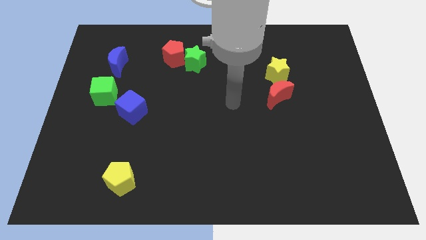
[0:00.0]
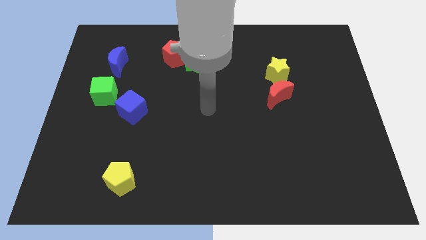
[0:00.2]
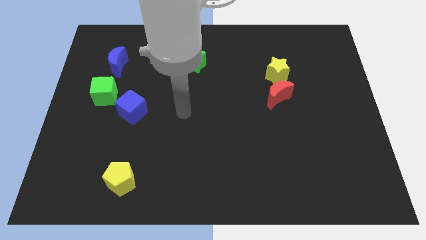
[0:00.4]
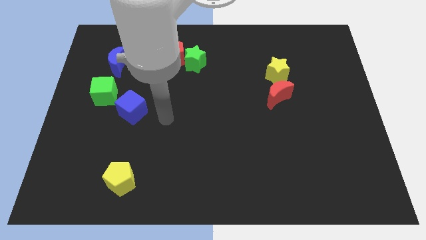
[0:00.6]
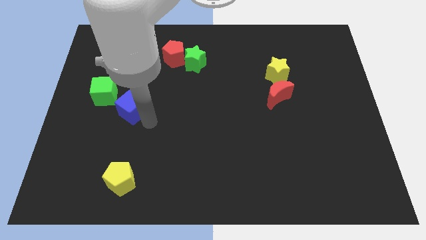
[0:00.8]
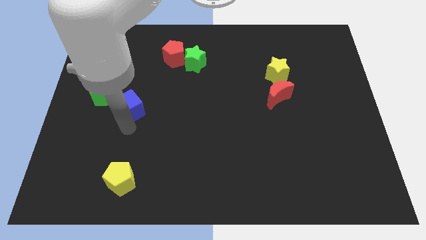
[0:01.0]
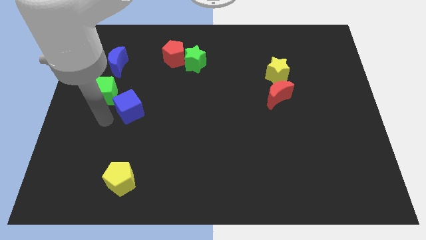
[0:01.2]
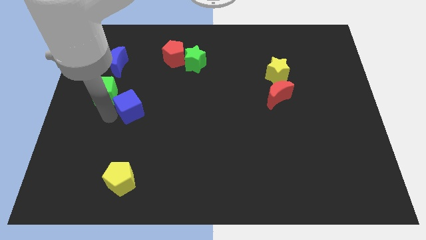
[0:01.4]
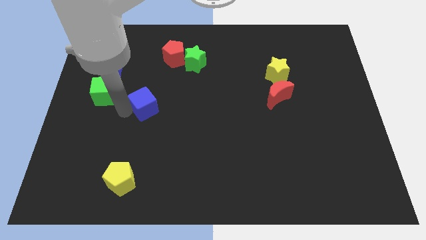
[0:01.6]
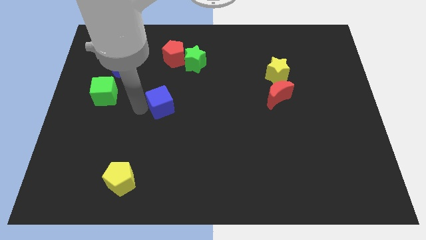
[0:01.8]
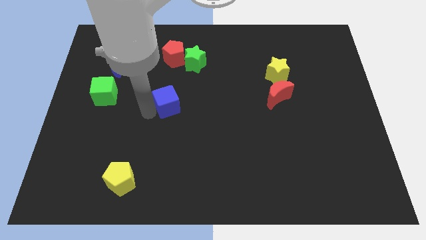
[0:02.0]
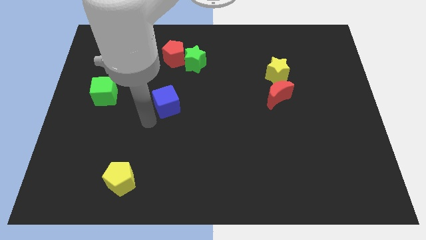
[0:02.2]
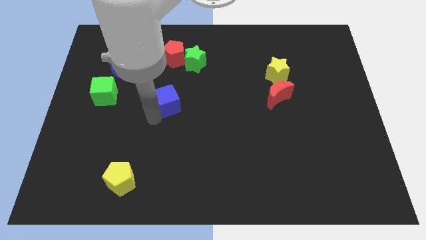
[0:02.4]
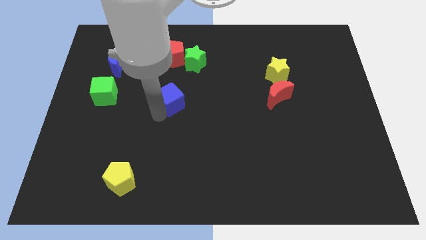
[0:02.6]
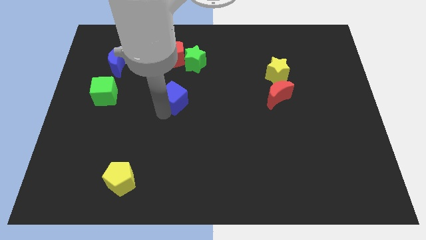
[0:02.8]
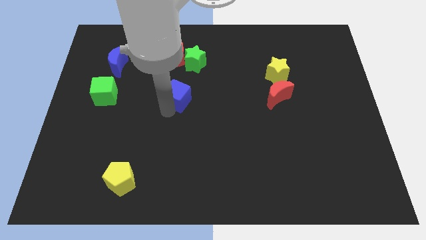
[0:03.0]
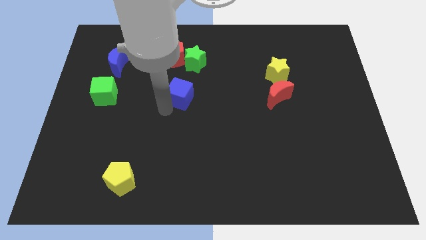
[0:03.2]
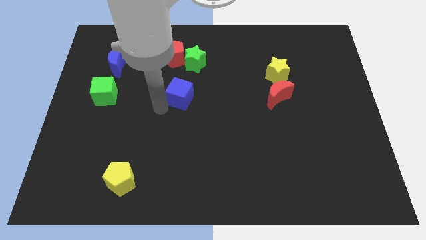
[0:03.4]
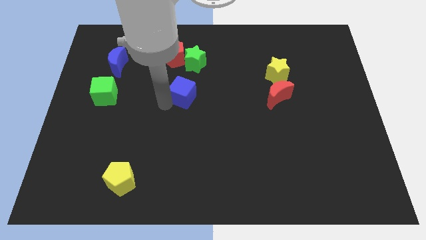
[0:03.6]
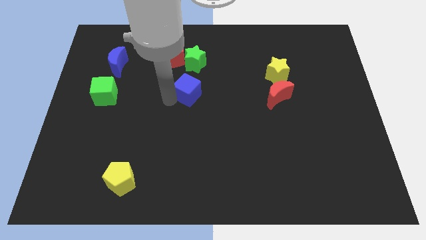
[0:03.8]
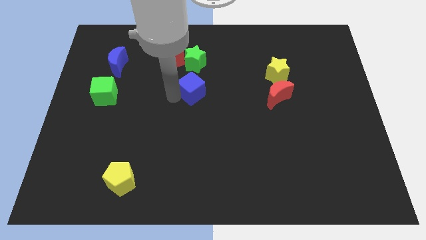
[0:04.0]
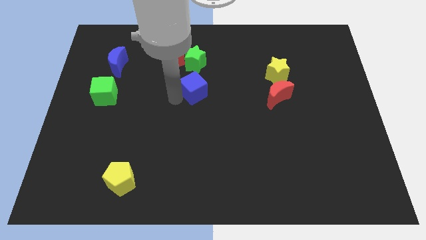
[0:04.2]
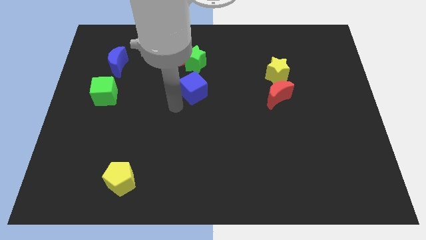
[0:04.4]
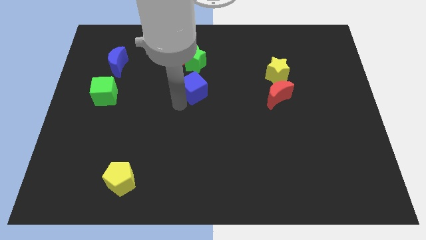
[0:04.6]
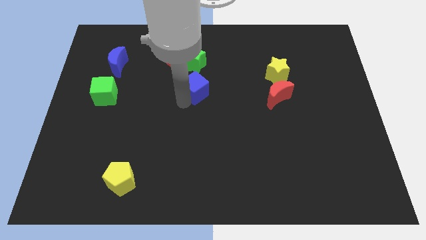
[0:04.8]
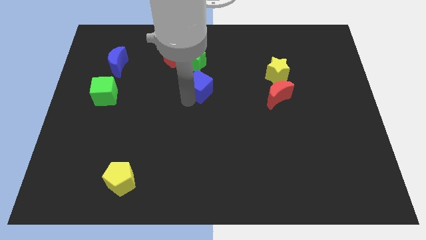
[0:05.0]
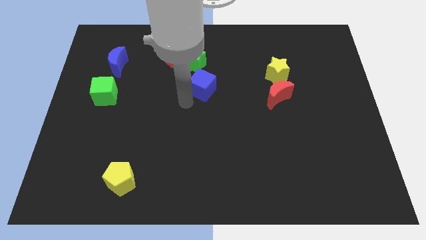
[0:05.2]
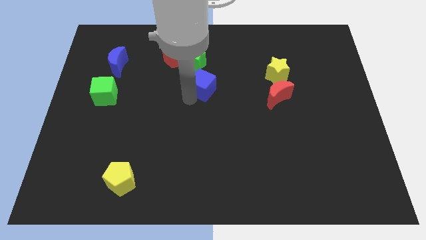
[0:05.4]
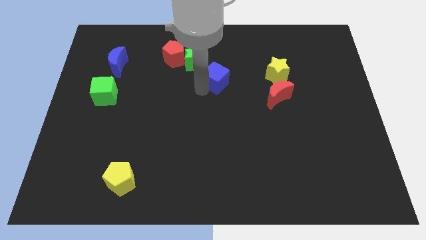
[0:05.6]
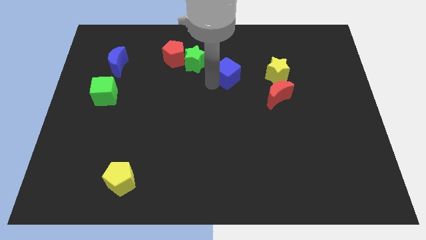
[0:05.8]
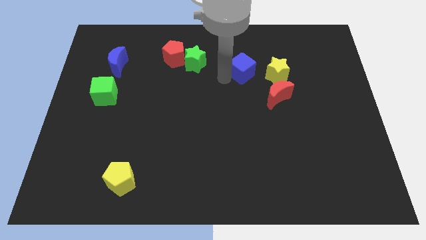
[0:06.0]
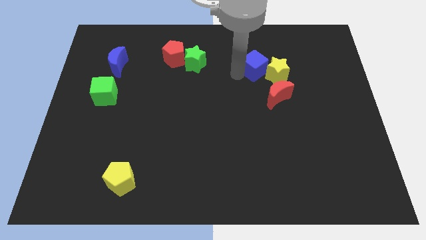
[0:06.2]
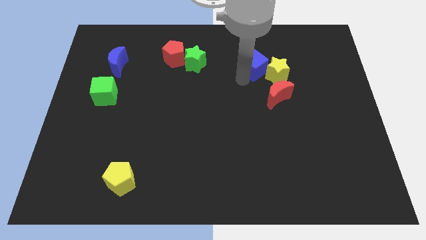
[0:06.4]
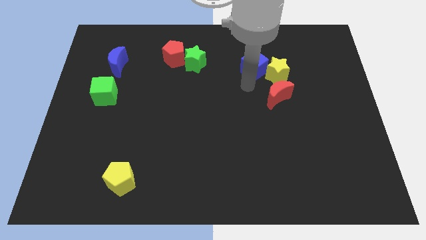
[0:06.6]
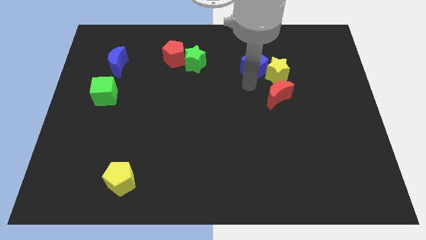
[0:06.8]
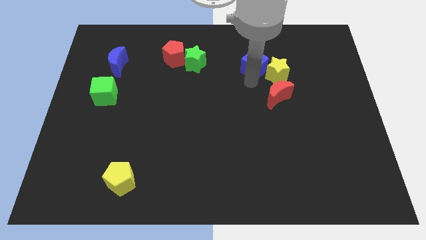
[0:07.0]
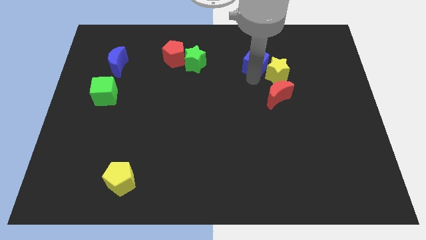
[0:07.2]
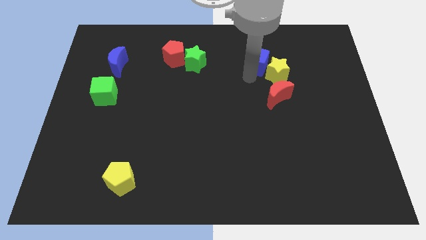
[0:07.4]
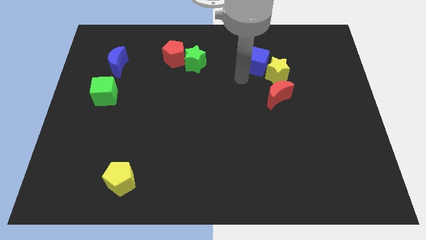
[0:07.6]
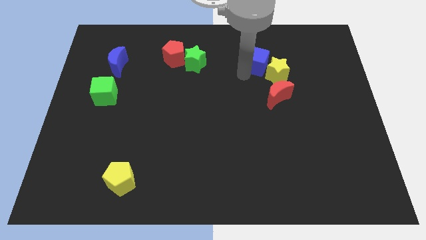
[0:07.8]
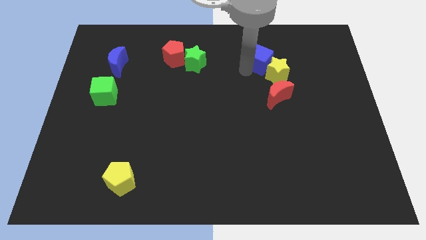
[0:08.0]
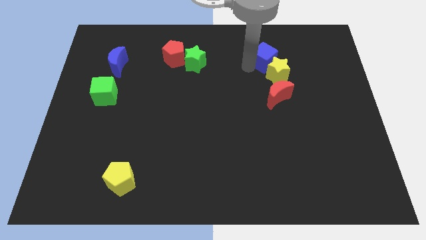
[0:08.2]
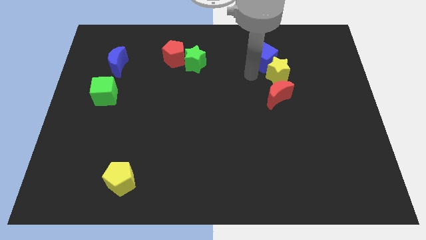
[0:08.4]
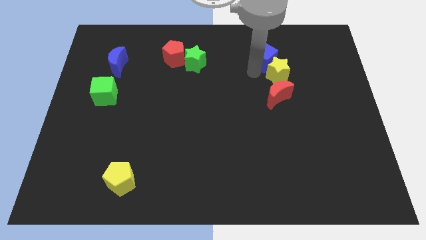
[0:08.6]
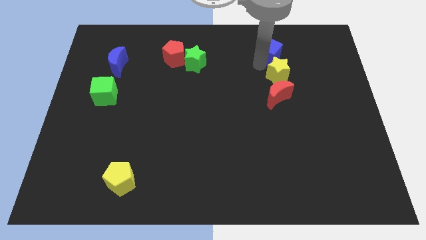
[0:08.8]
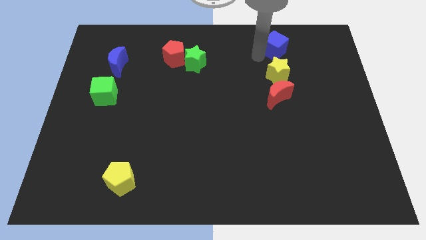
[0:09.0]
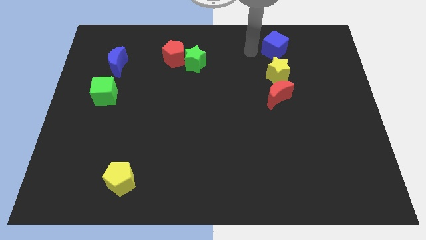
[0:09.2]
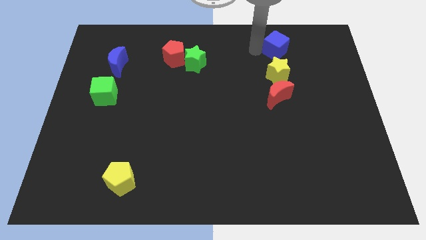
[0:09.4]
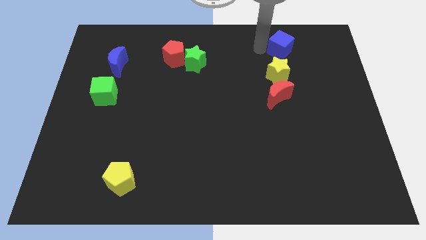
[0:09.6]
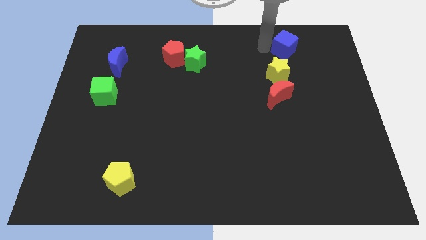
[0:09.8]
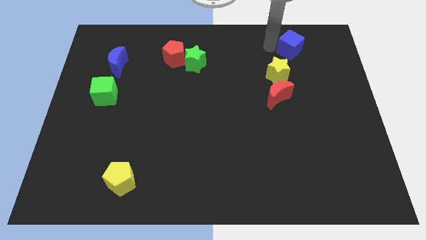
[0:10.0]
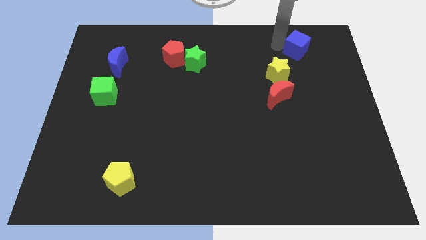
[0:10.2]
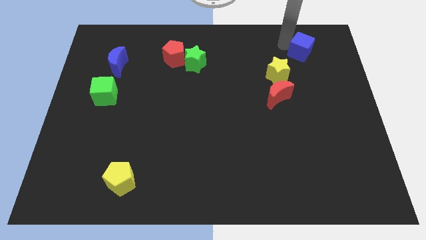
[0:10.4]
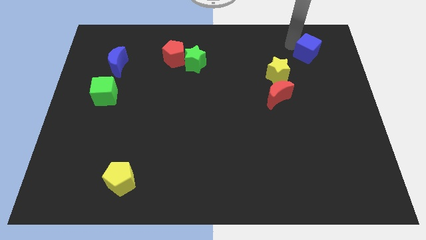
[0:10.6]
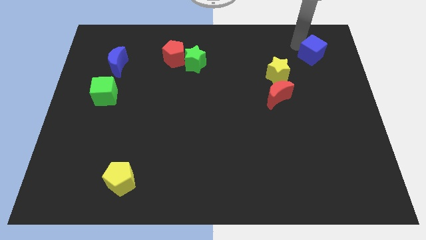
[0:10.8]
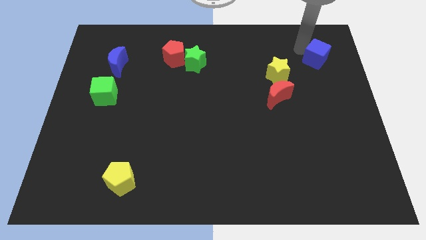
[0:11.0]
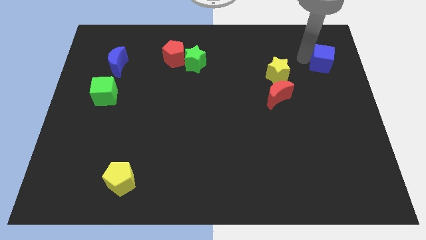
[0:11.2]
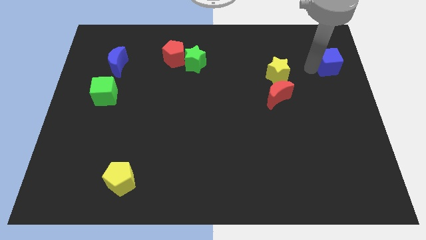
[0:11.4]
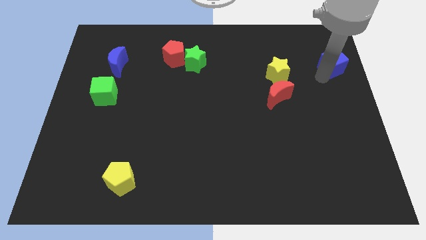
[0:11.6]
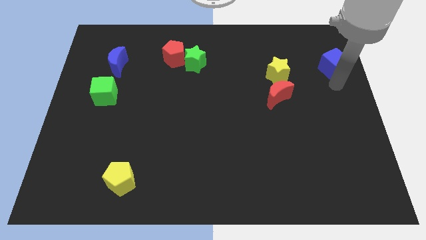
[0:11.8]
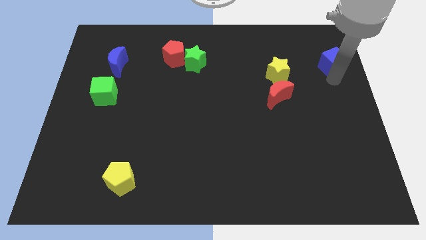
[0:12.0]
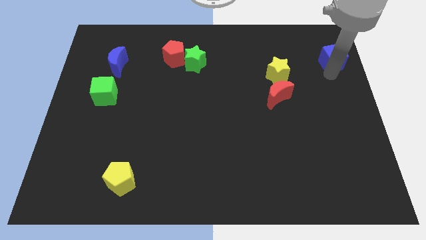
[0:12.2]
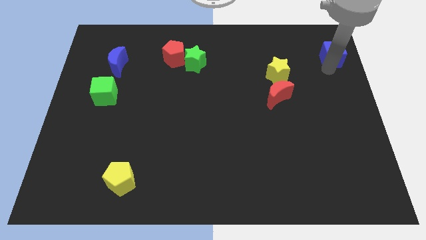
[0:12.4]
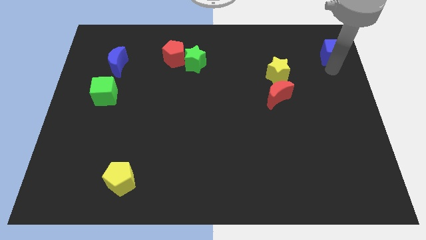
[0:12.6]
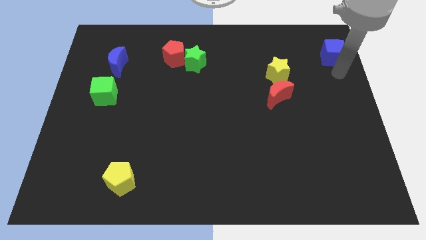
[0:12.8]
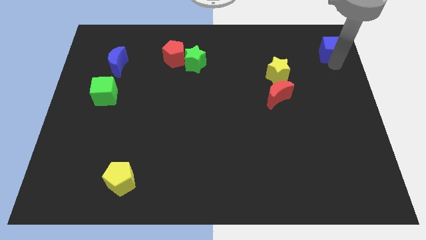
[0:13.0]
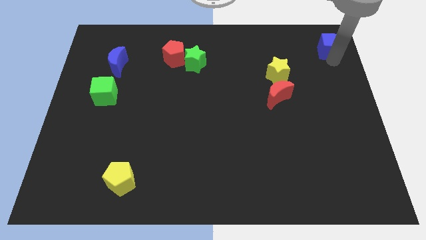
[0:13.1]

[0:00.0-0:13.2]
put the blue cube to the top right of the board
